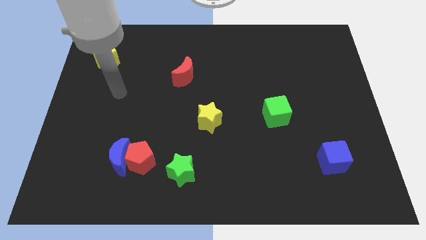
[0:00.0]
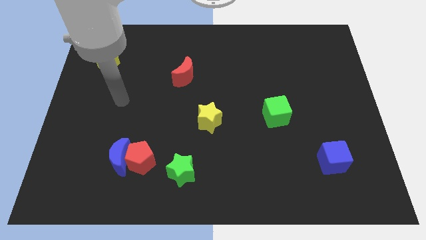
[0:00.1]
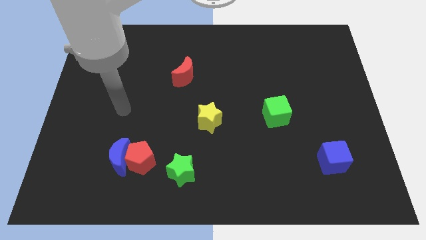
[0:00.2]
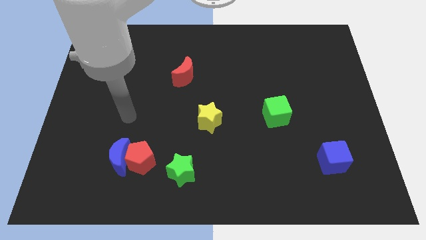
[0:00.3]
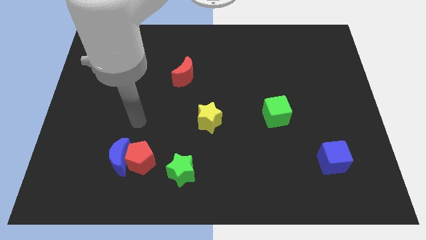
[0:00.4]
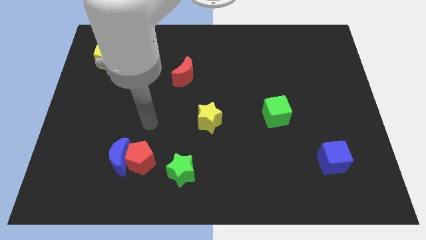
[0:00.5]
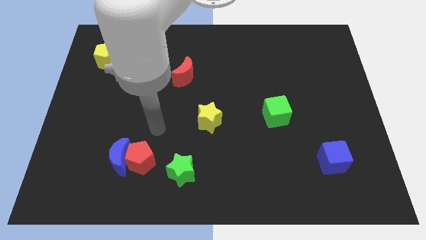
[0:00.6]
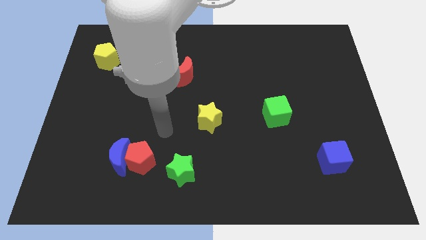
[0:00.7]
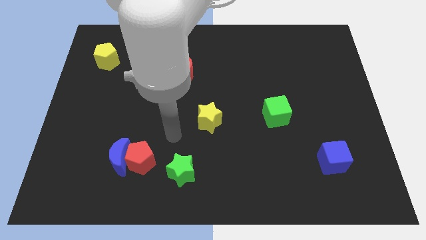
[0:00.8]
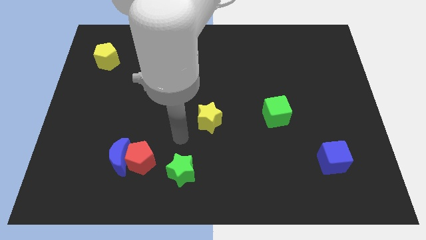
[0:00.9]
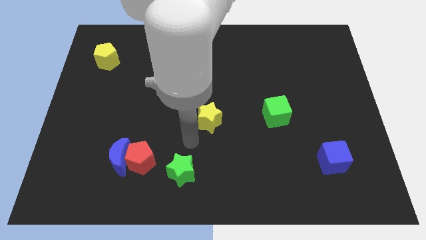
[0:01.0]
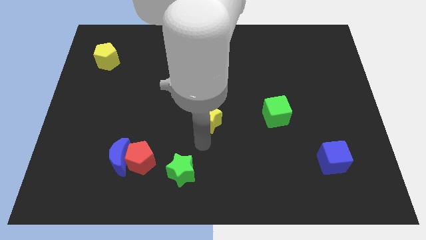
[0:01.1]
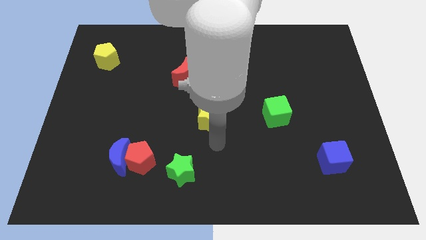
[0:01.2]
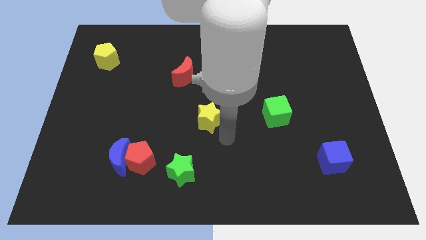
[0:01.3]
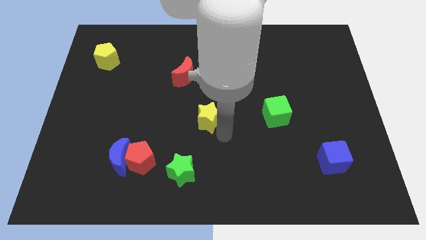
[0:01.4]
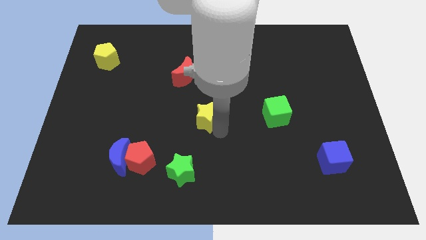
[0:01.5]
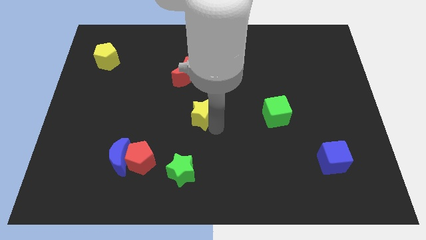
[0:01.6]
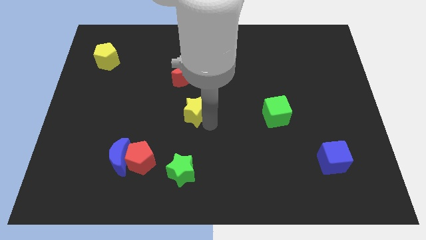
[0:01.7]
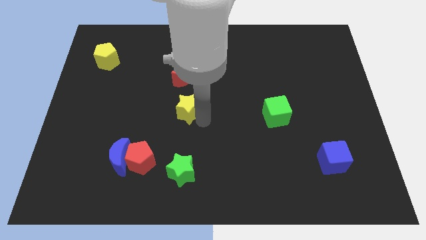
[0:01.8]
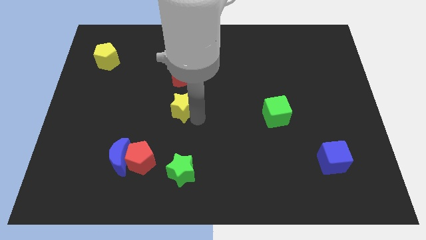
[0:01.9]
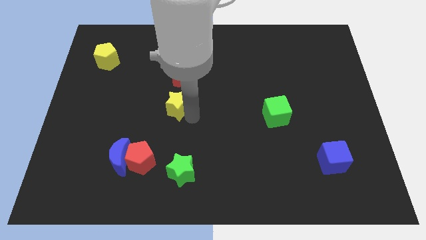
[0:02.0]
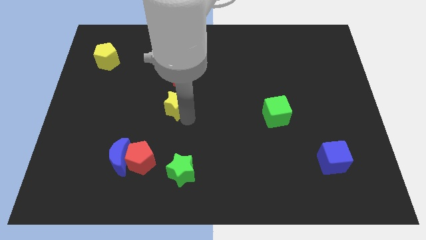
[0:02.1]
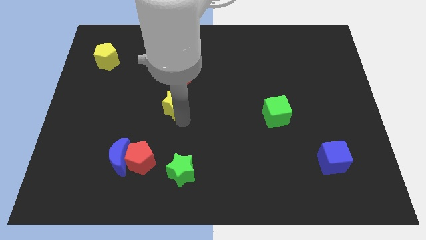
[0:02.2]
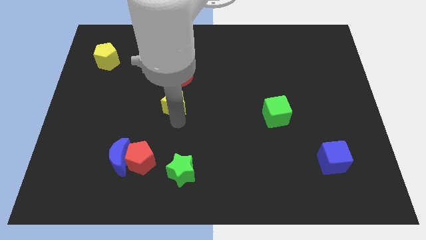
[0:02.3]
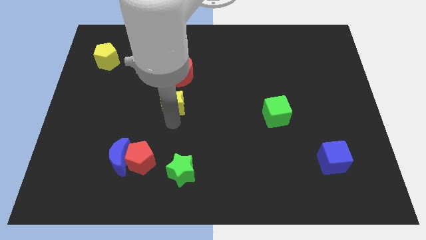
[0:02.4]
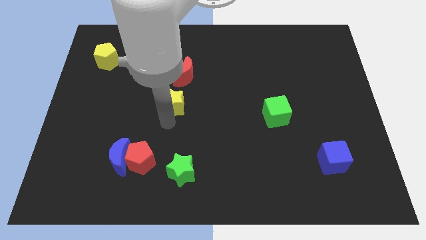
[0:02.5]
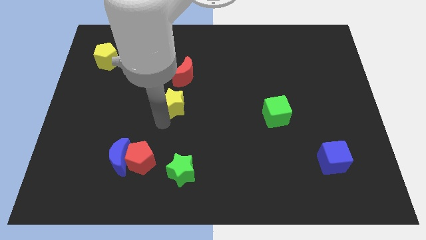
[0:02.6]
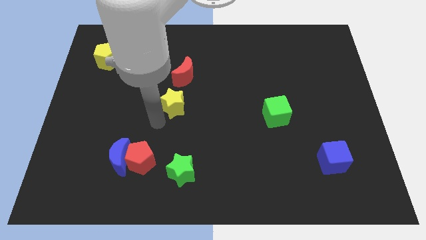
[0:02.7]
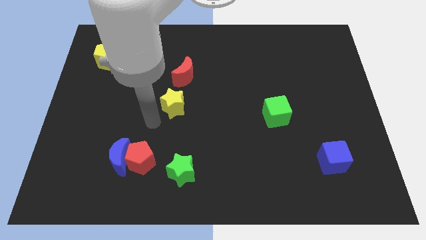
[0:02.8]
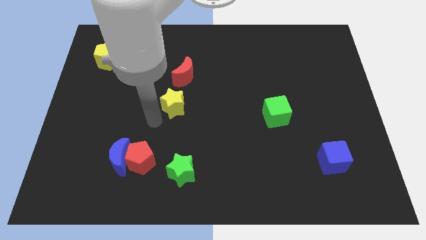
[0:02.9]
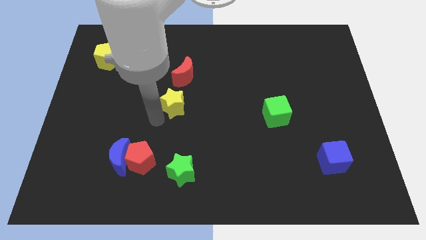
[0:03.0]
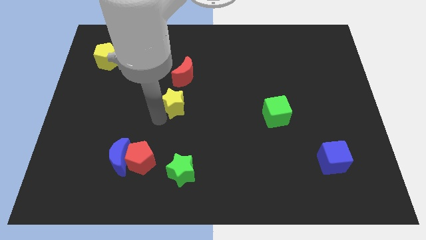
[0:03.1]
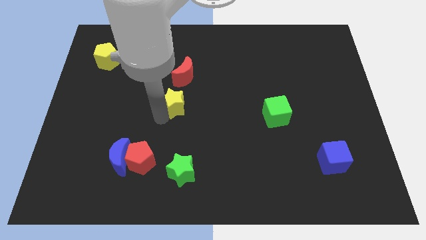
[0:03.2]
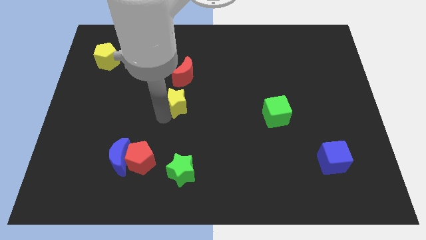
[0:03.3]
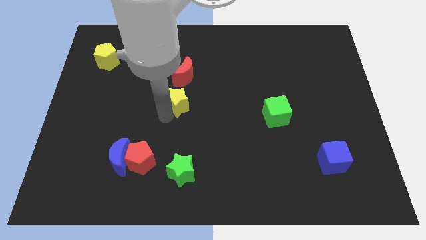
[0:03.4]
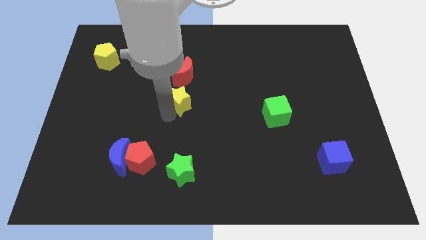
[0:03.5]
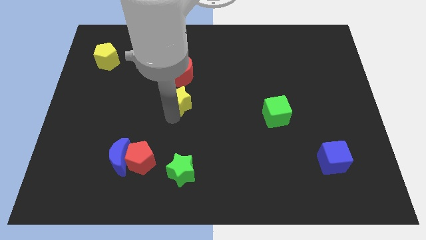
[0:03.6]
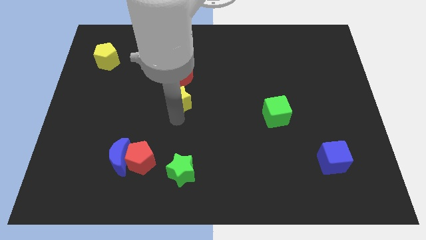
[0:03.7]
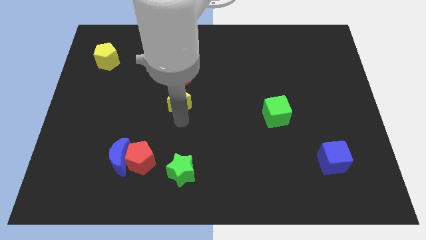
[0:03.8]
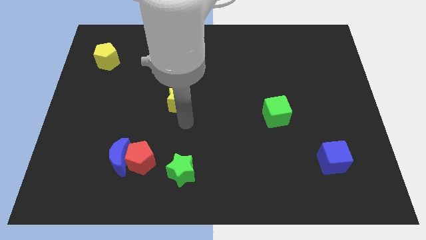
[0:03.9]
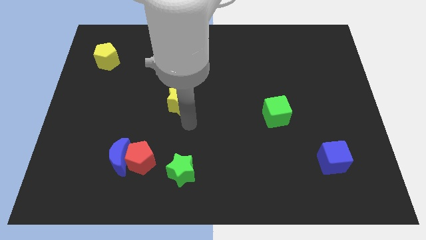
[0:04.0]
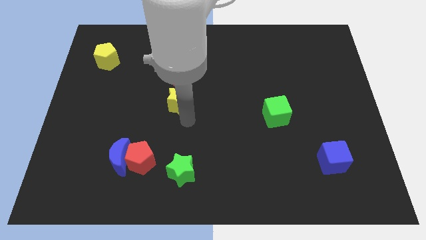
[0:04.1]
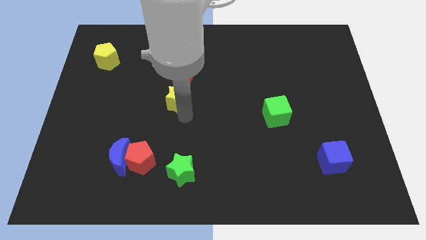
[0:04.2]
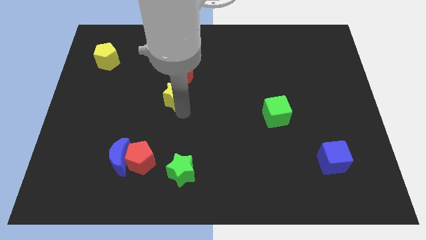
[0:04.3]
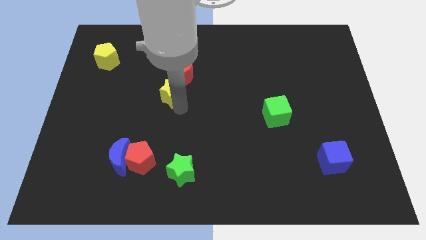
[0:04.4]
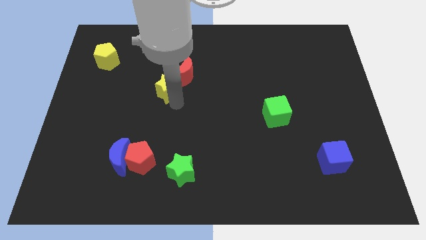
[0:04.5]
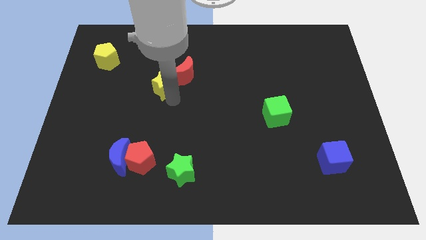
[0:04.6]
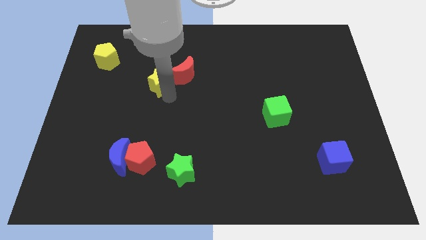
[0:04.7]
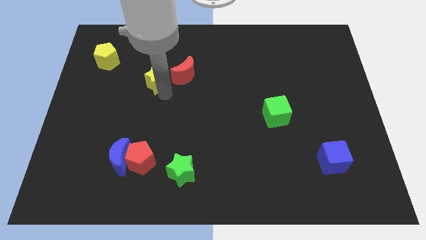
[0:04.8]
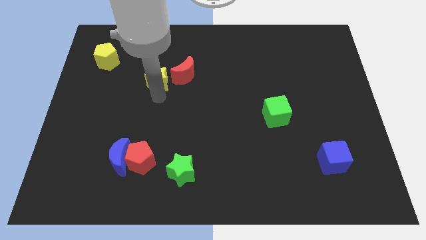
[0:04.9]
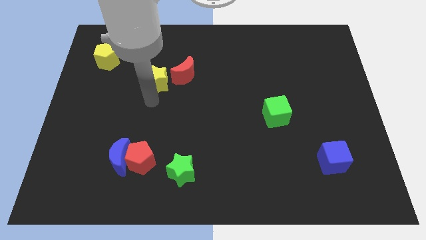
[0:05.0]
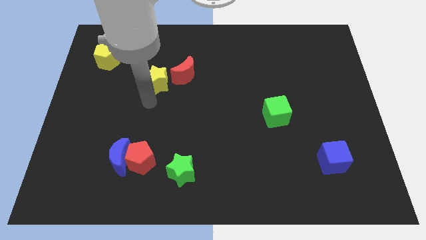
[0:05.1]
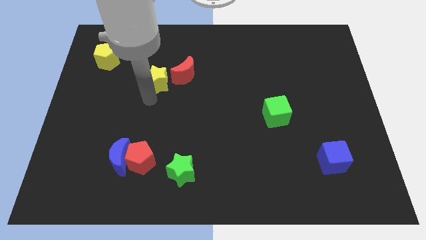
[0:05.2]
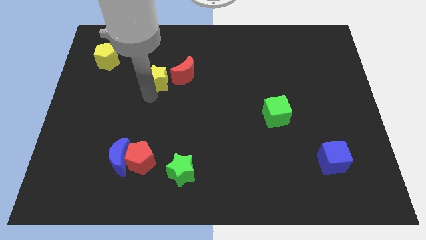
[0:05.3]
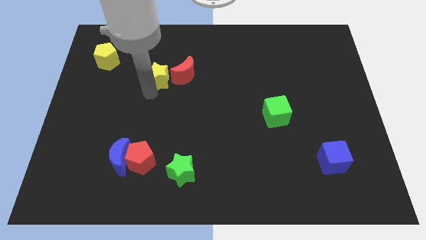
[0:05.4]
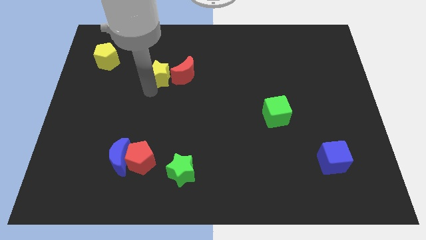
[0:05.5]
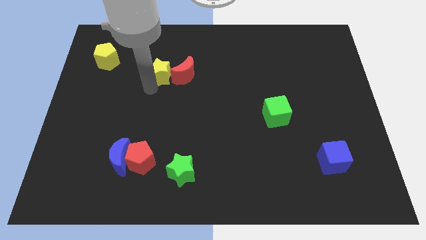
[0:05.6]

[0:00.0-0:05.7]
put the yellow star to the top left of the red moon

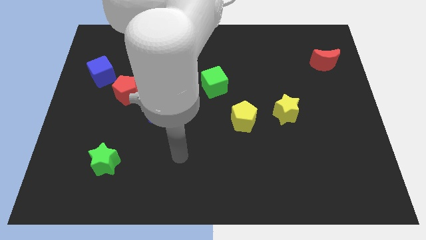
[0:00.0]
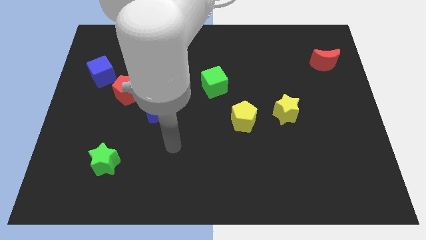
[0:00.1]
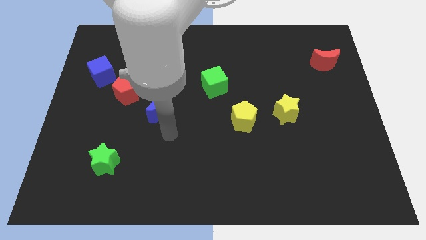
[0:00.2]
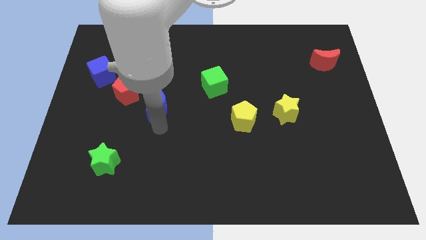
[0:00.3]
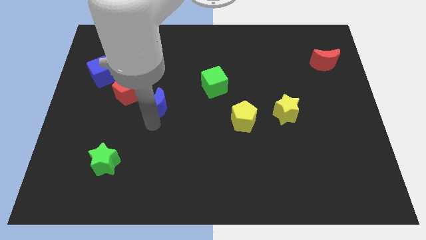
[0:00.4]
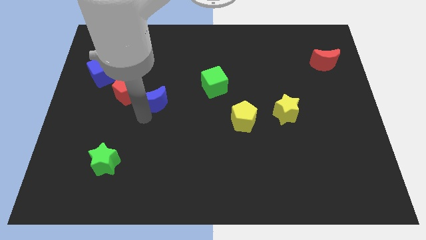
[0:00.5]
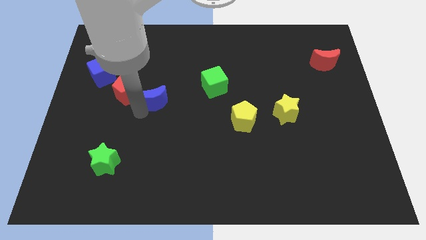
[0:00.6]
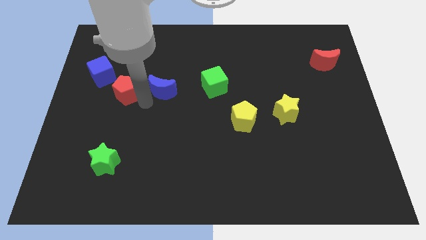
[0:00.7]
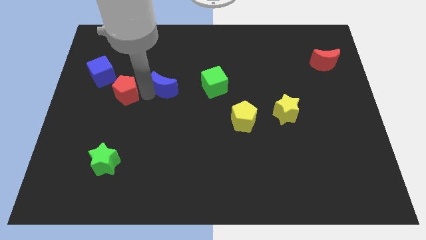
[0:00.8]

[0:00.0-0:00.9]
move the red pentagon to the bottom left side of the blue moon
